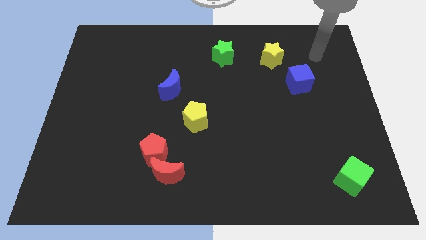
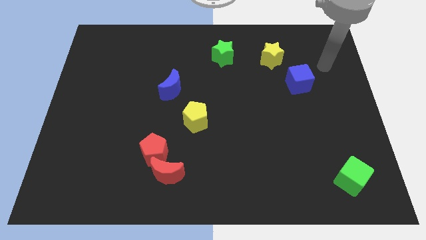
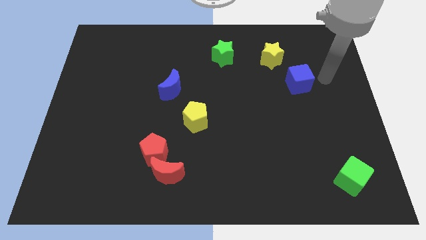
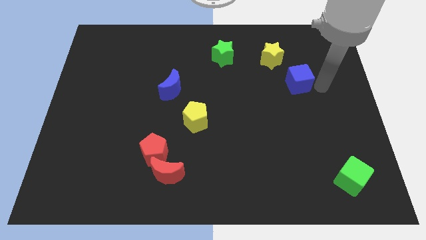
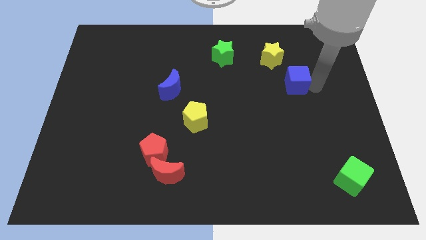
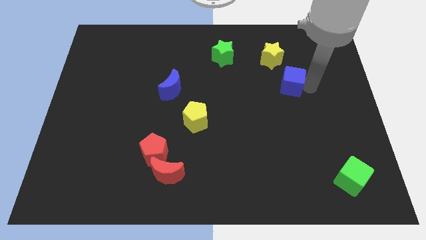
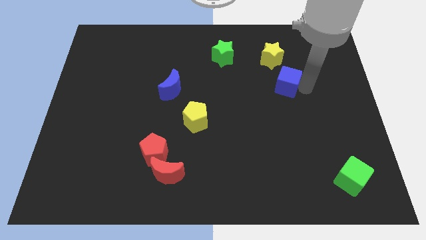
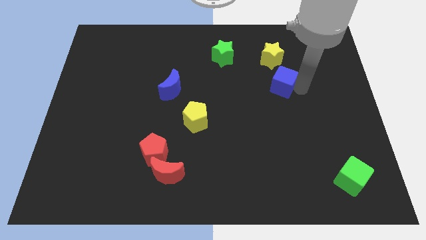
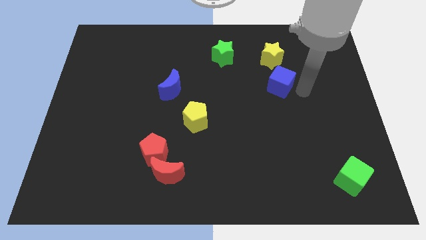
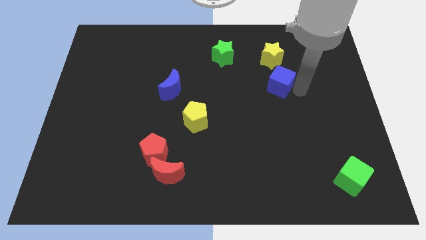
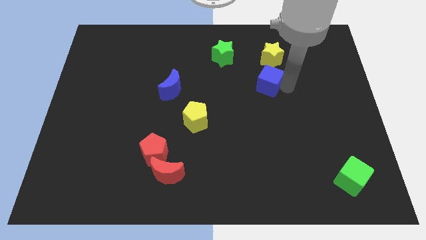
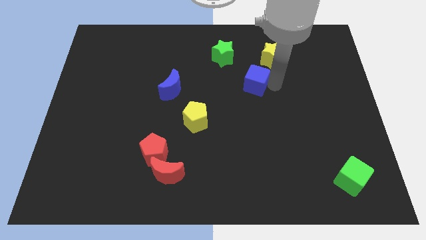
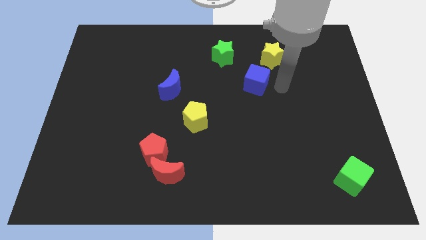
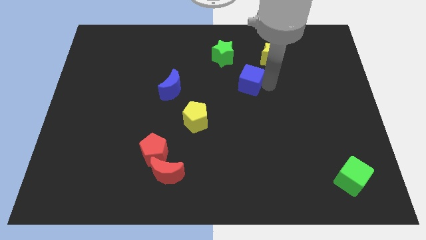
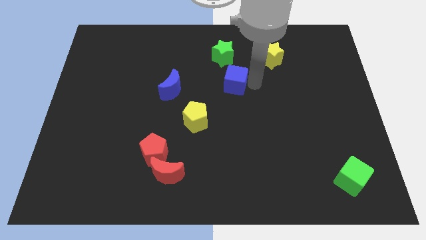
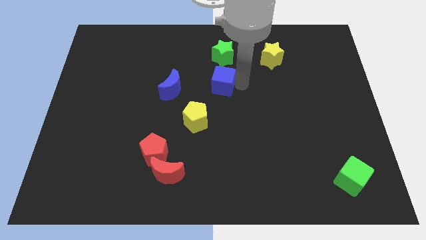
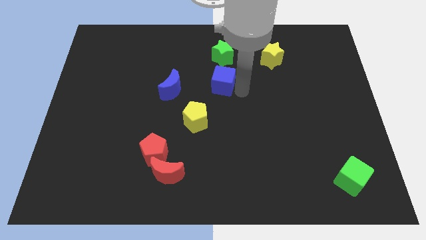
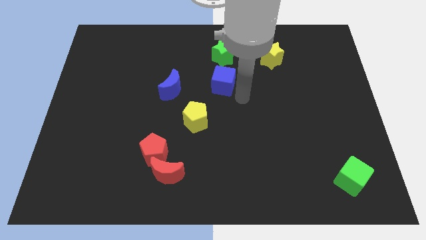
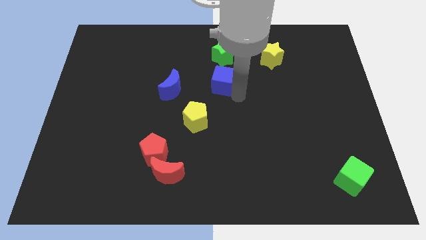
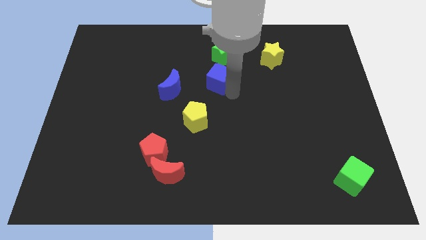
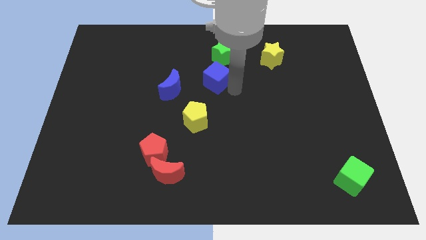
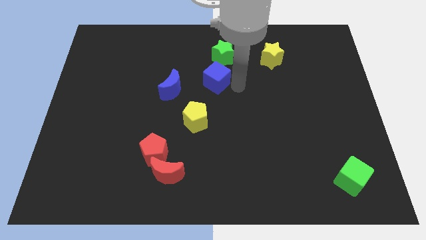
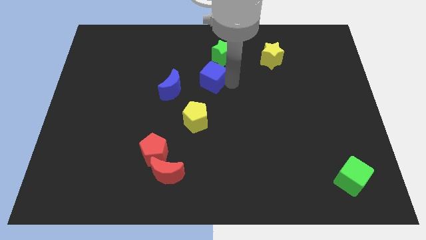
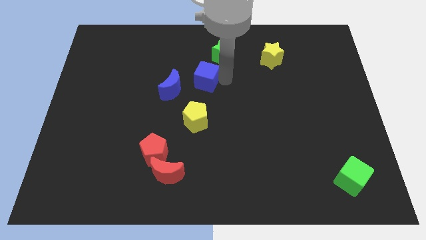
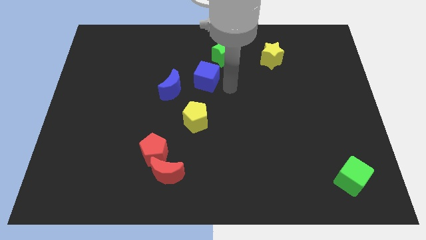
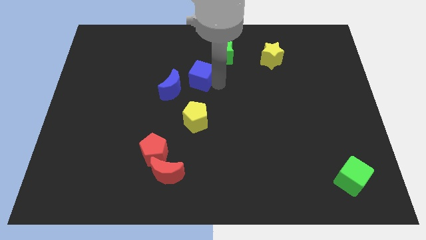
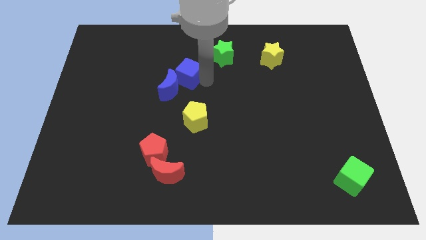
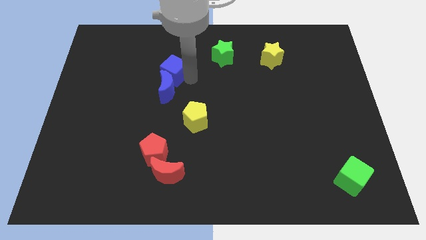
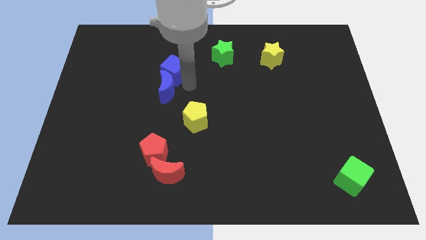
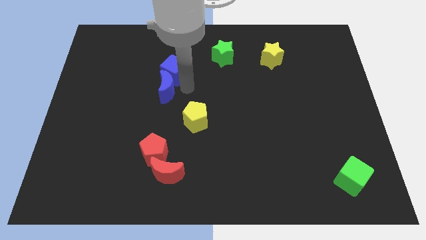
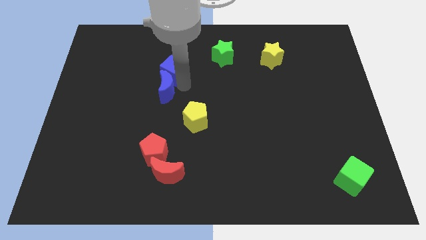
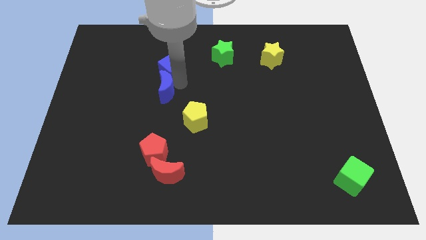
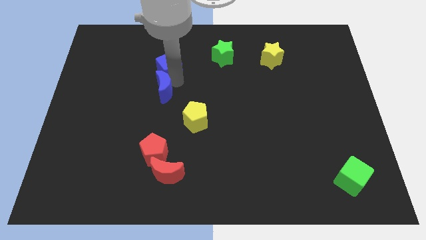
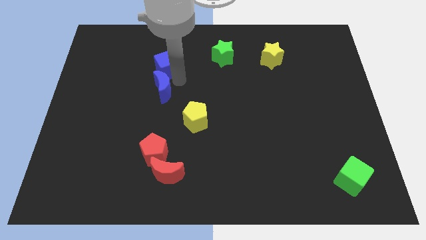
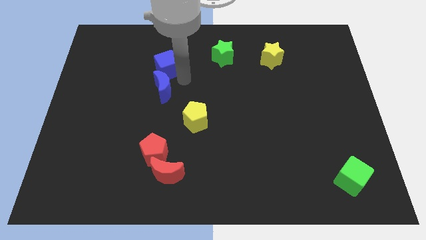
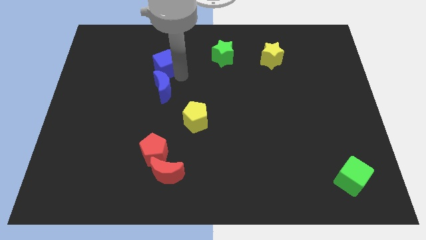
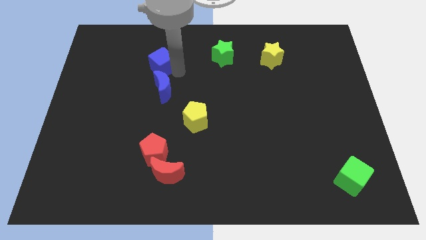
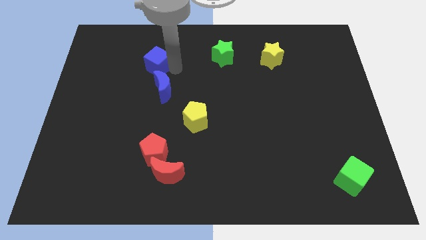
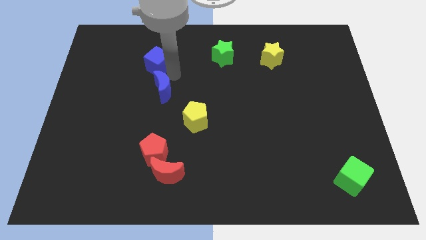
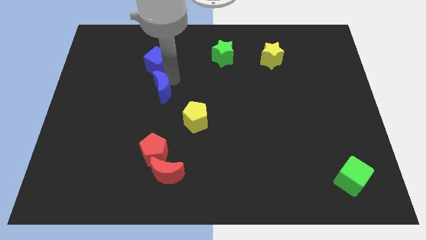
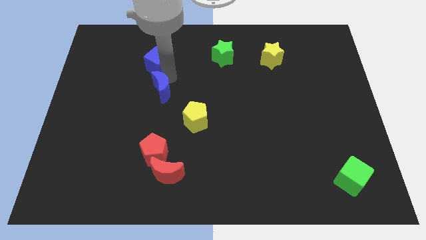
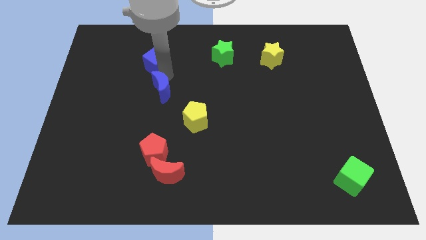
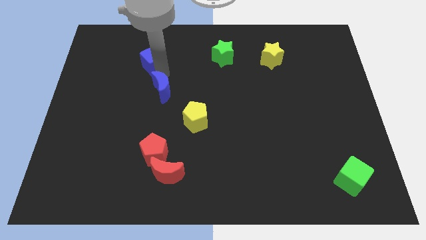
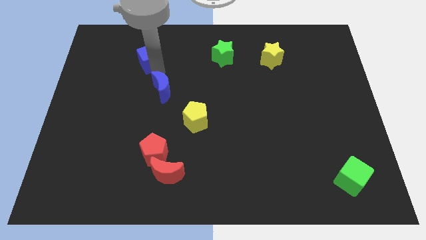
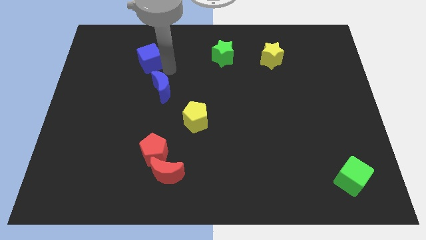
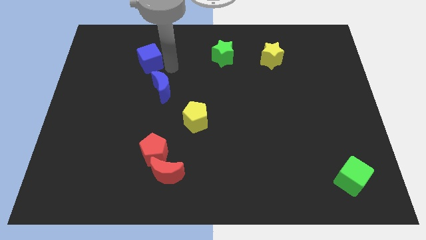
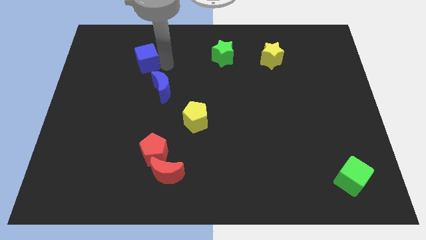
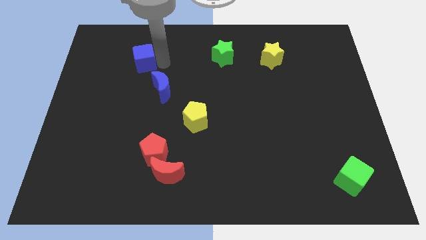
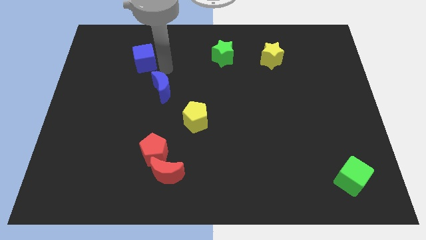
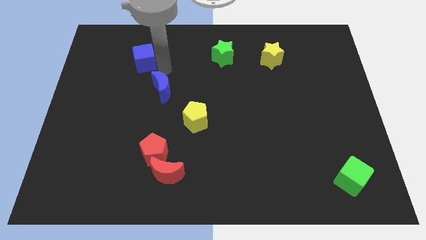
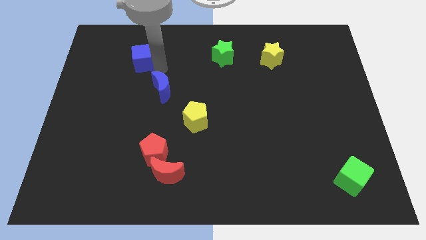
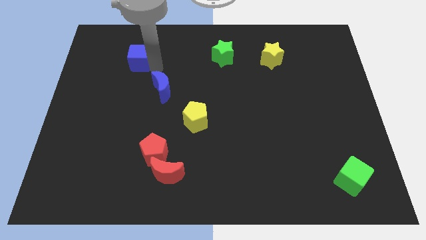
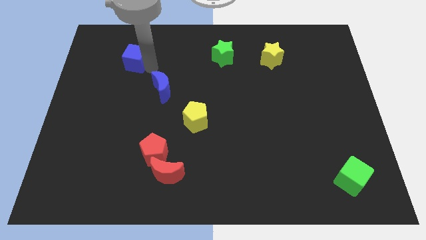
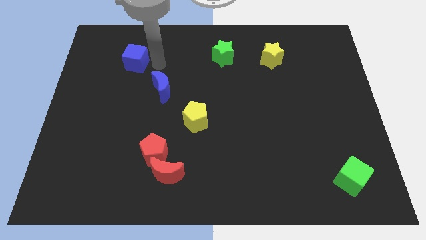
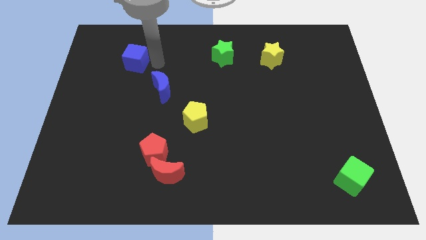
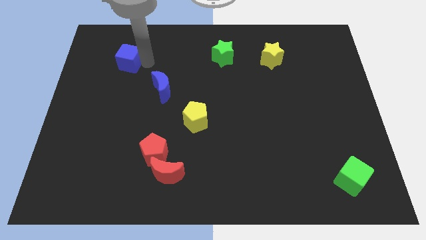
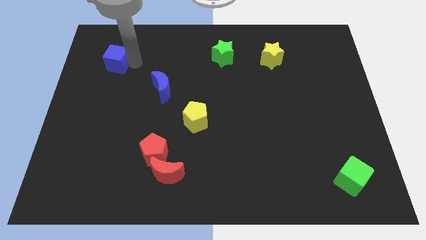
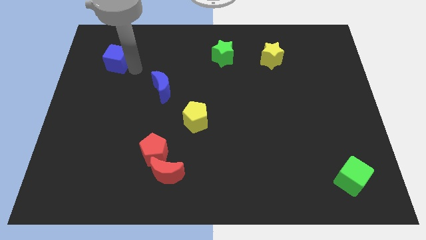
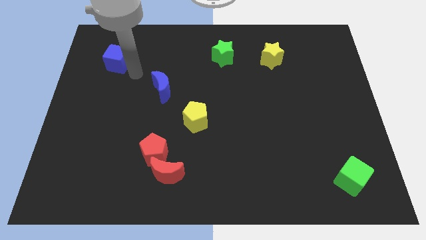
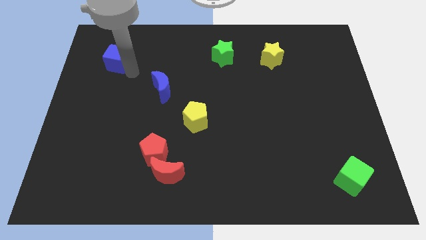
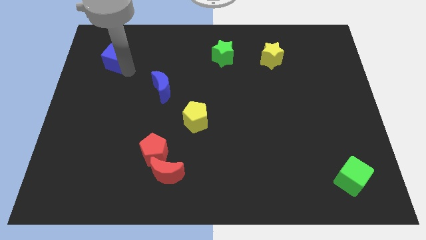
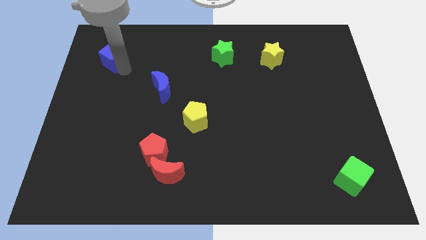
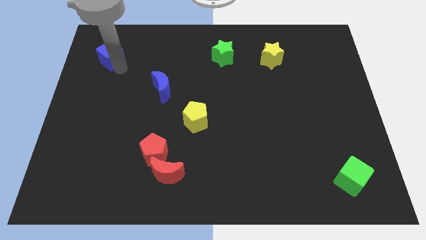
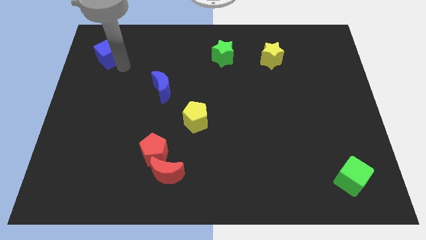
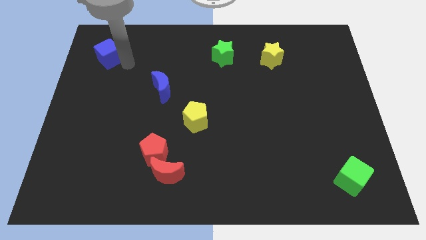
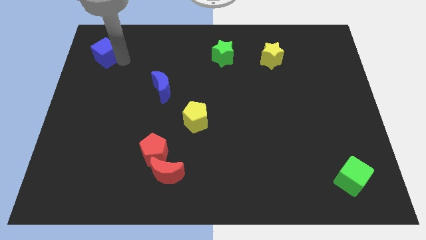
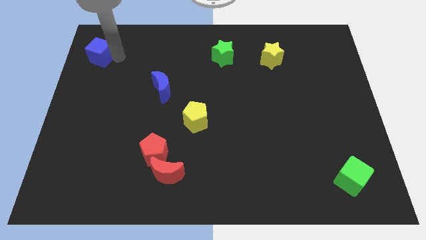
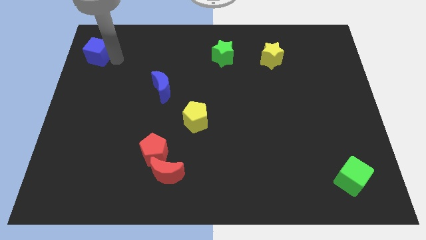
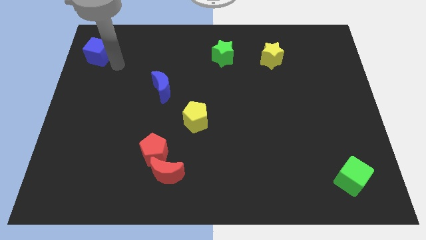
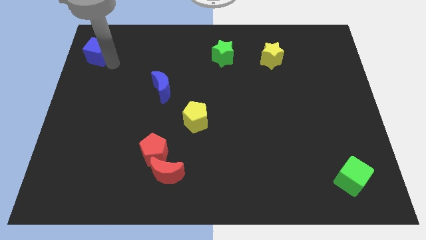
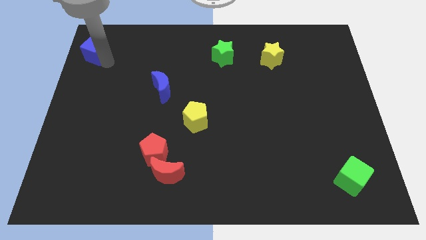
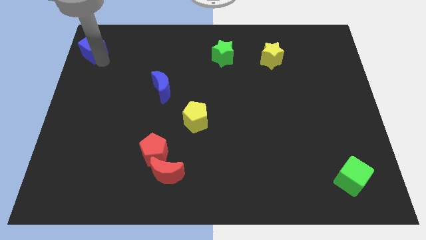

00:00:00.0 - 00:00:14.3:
slide the blue cube to the top left corner
